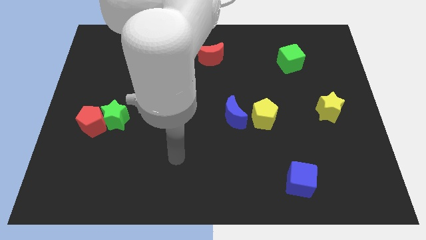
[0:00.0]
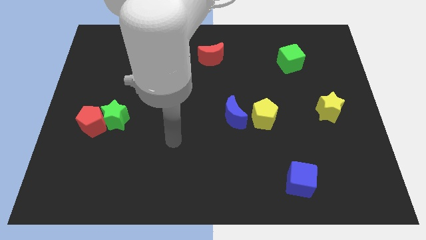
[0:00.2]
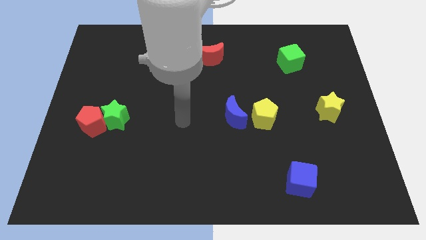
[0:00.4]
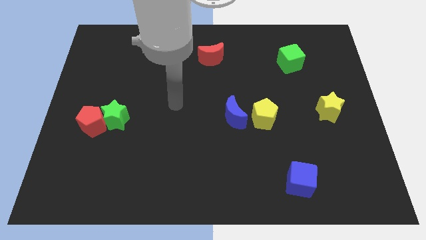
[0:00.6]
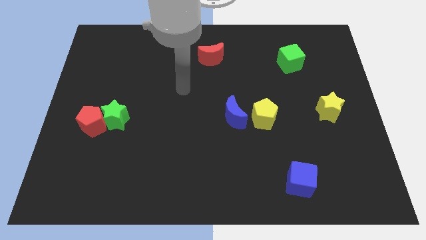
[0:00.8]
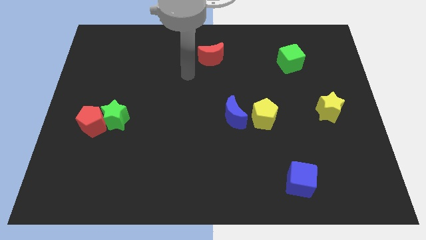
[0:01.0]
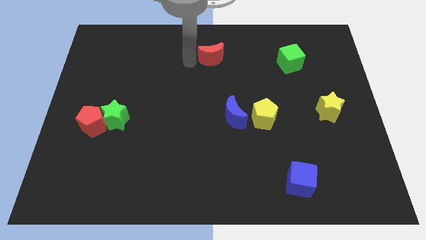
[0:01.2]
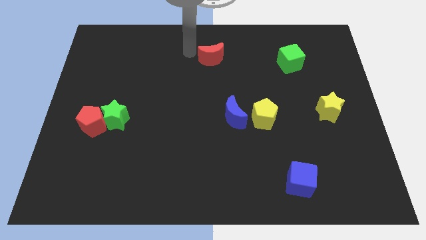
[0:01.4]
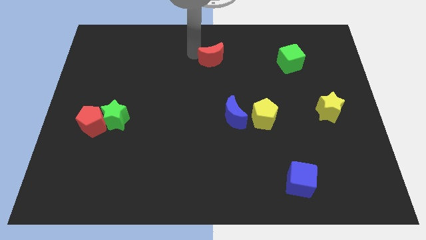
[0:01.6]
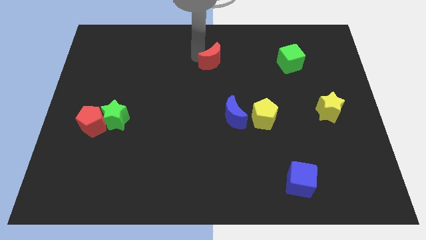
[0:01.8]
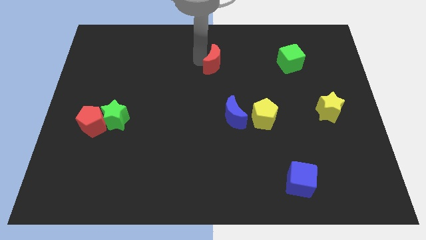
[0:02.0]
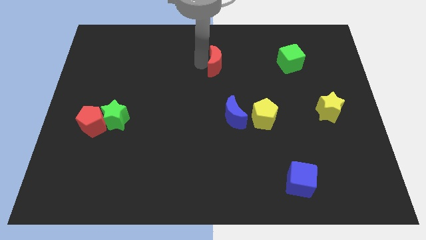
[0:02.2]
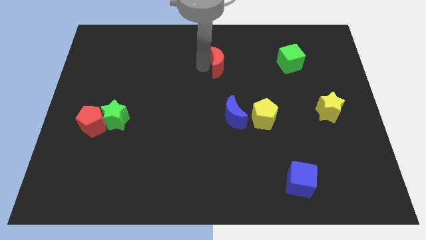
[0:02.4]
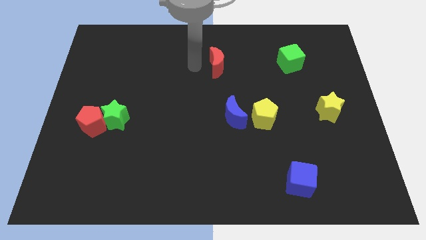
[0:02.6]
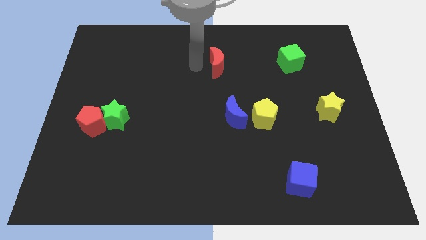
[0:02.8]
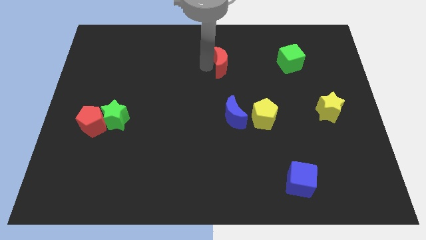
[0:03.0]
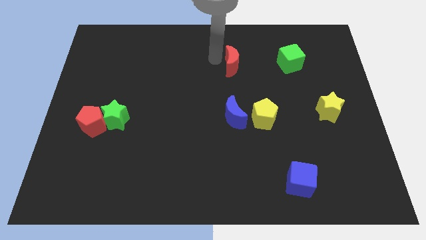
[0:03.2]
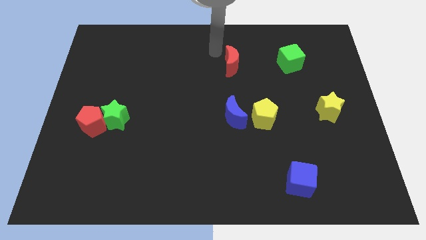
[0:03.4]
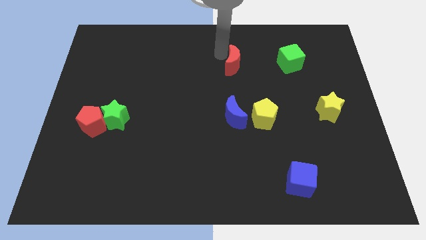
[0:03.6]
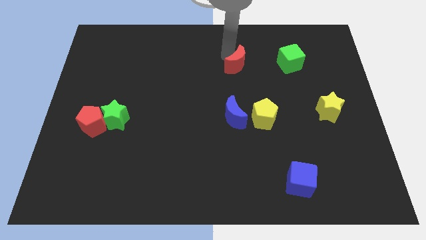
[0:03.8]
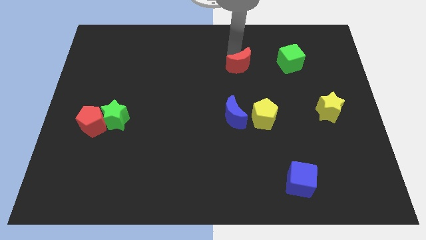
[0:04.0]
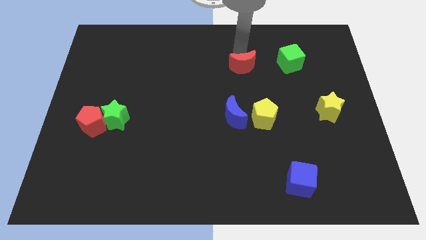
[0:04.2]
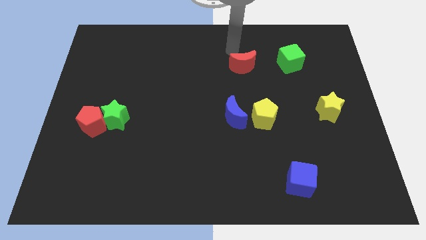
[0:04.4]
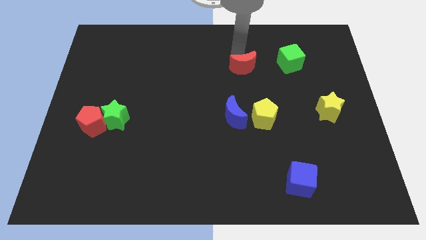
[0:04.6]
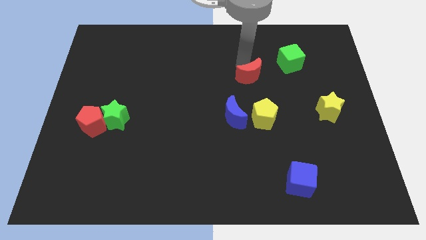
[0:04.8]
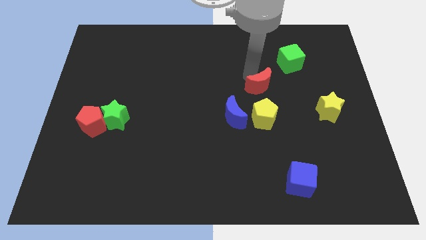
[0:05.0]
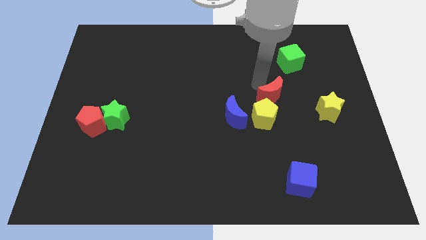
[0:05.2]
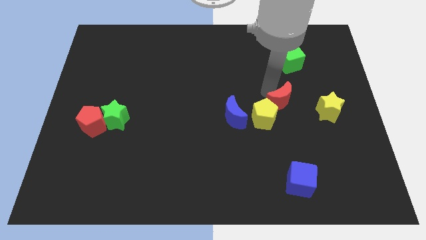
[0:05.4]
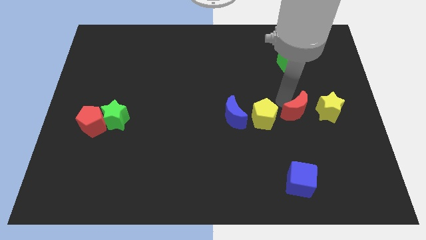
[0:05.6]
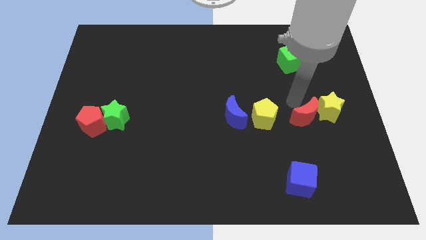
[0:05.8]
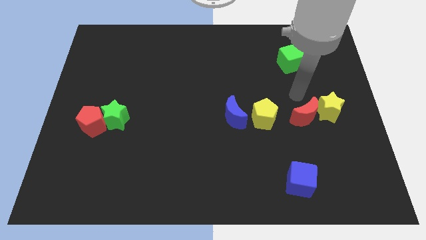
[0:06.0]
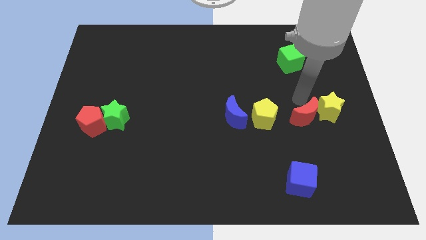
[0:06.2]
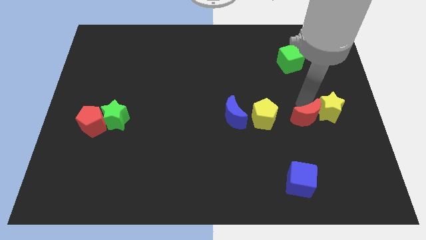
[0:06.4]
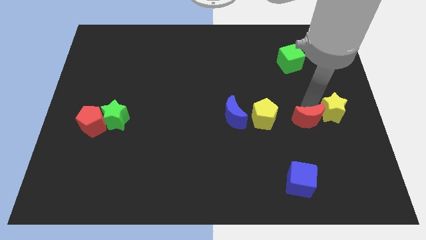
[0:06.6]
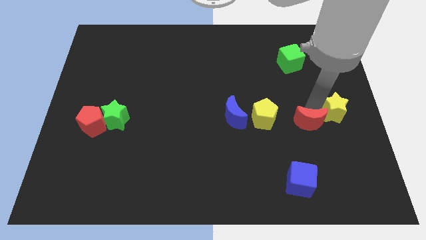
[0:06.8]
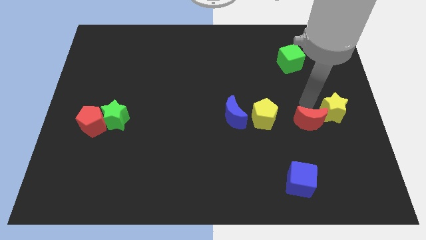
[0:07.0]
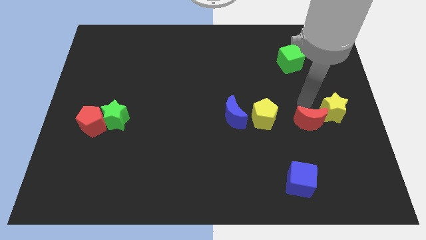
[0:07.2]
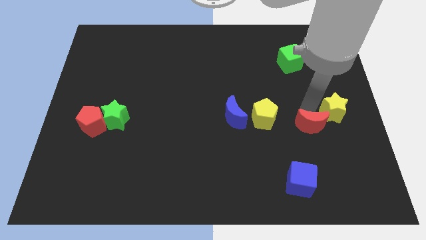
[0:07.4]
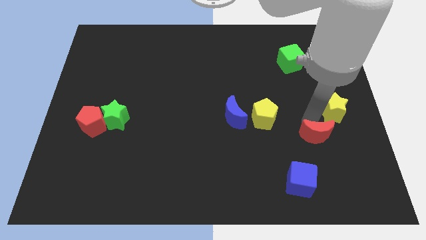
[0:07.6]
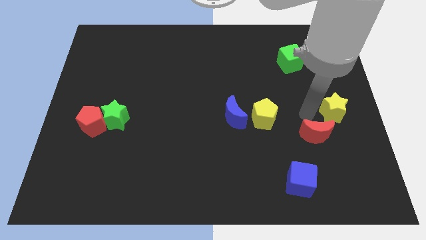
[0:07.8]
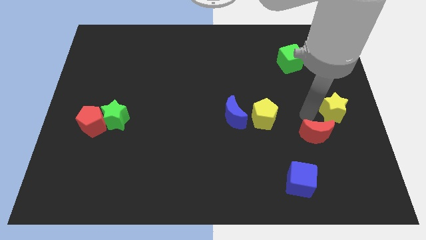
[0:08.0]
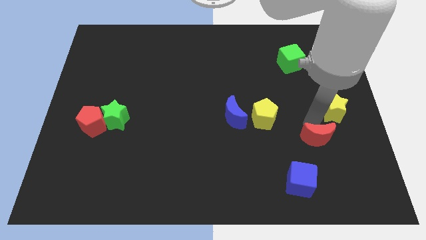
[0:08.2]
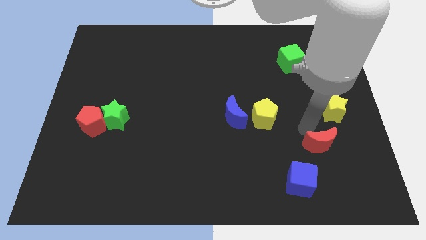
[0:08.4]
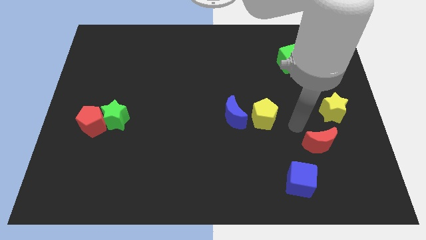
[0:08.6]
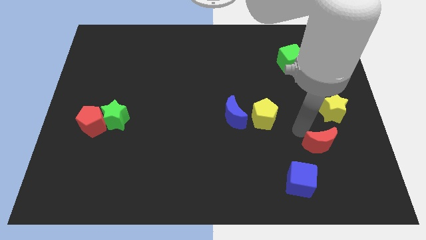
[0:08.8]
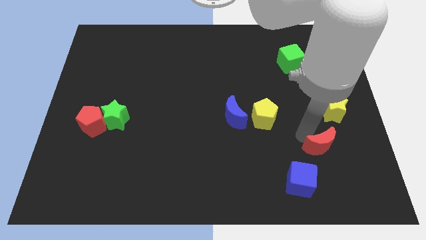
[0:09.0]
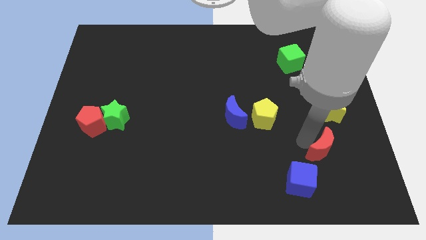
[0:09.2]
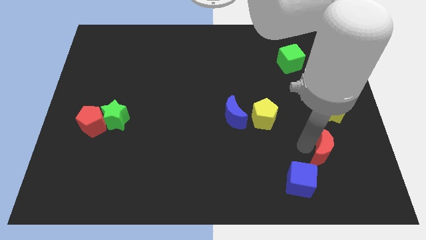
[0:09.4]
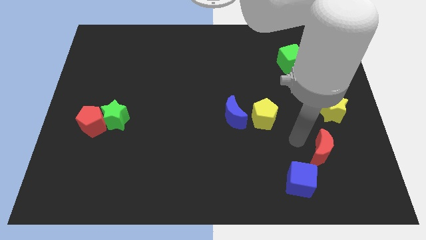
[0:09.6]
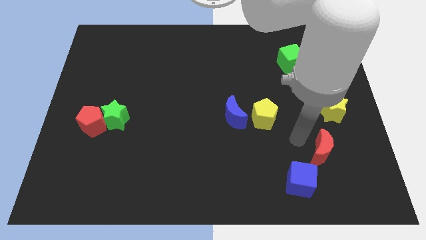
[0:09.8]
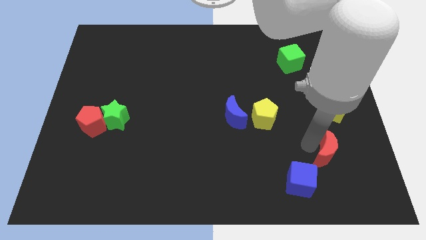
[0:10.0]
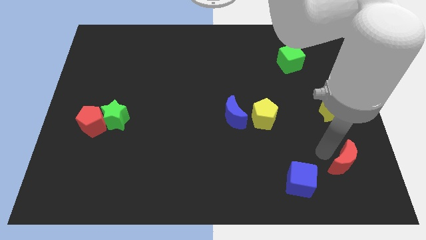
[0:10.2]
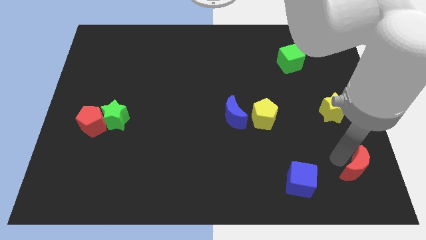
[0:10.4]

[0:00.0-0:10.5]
move the red moon to the bottom right
